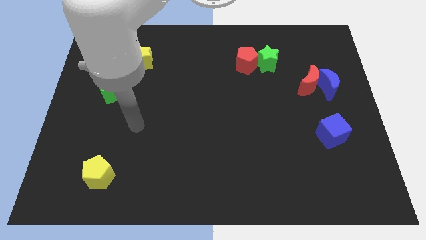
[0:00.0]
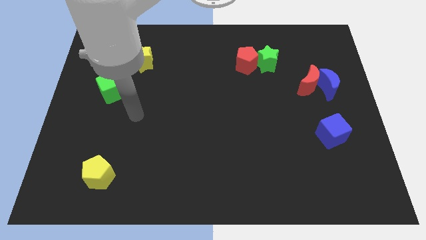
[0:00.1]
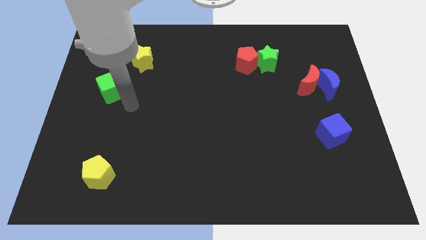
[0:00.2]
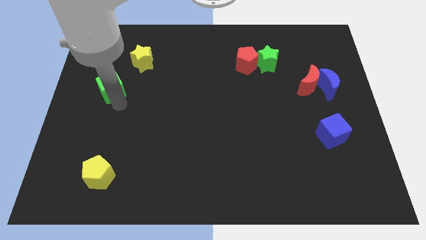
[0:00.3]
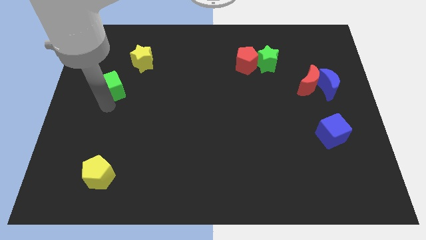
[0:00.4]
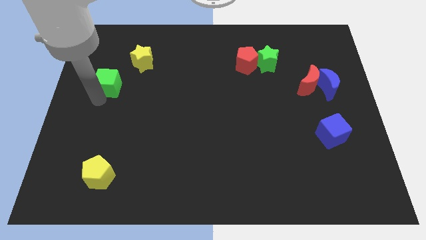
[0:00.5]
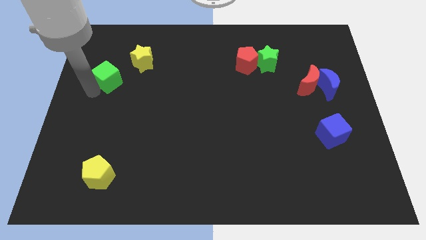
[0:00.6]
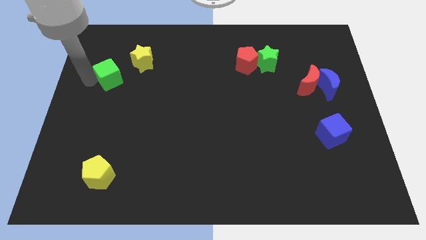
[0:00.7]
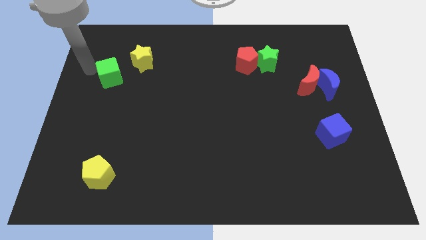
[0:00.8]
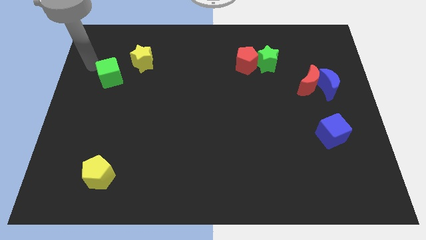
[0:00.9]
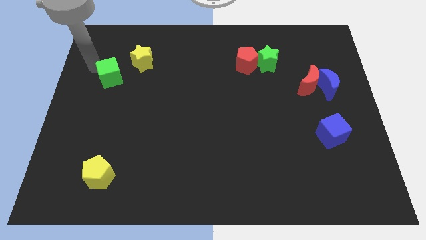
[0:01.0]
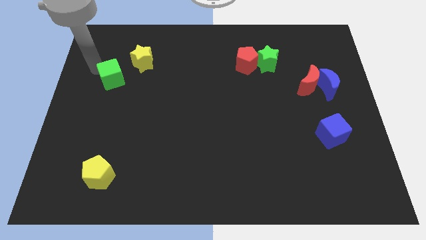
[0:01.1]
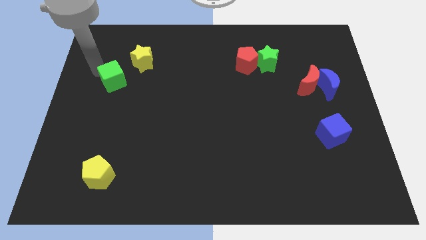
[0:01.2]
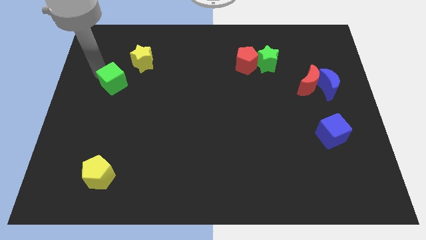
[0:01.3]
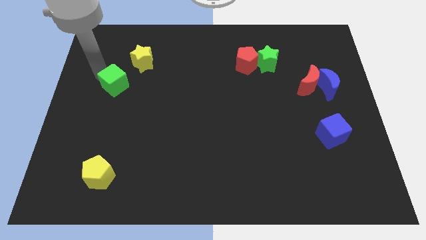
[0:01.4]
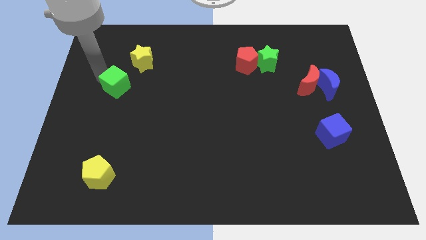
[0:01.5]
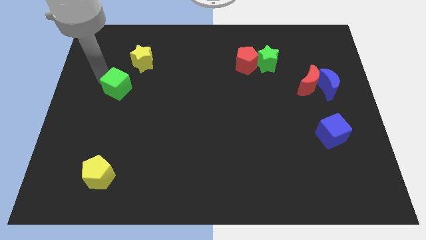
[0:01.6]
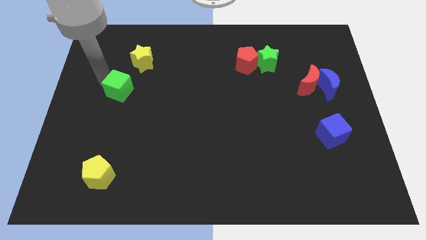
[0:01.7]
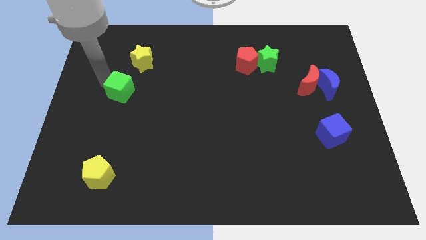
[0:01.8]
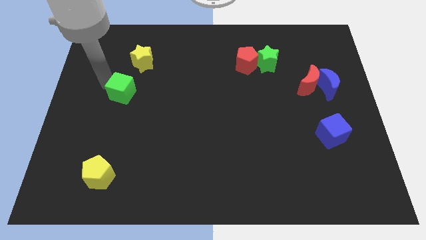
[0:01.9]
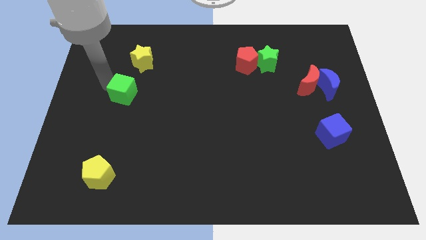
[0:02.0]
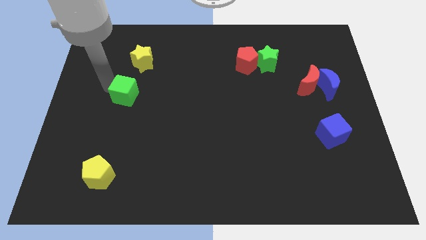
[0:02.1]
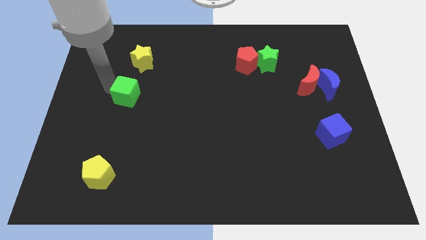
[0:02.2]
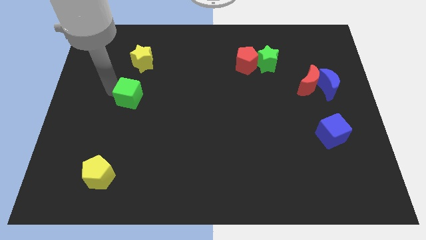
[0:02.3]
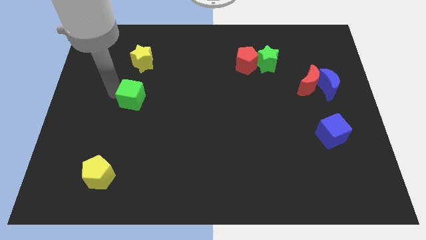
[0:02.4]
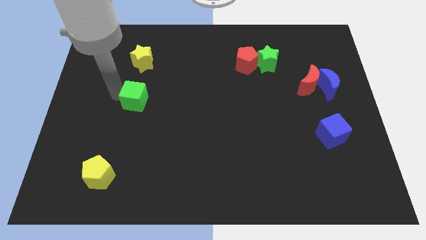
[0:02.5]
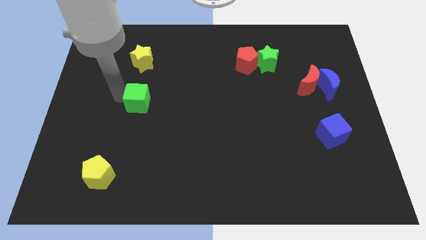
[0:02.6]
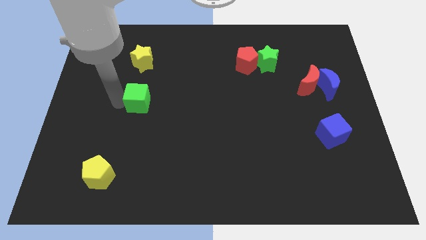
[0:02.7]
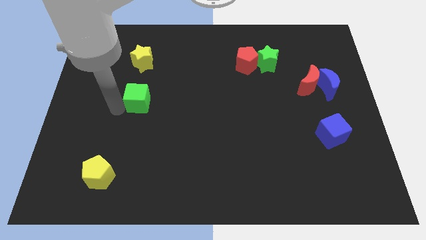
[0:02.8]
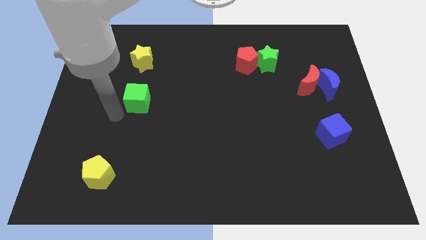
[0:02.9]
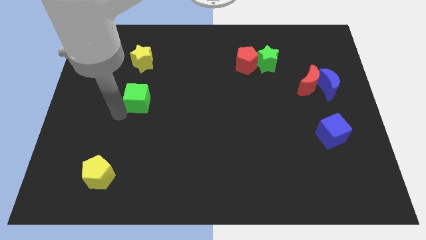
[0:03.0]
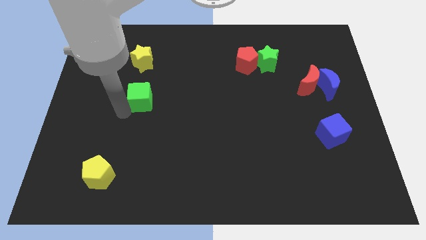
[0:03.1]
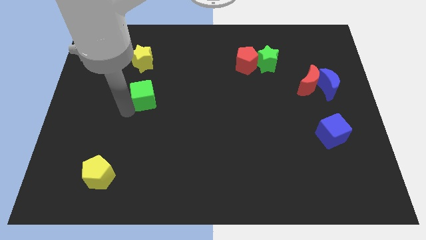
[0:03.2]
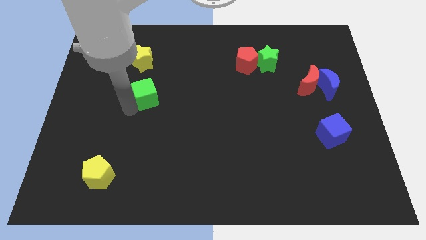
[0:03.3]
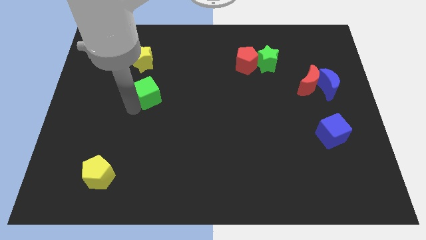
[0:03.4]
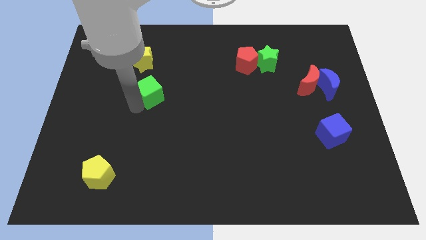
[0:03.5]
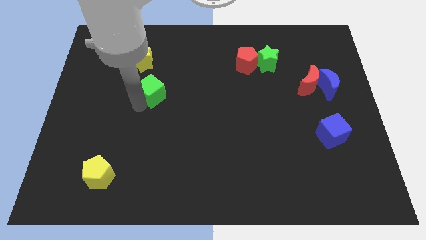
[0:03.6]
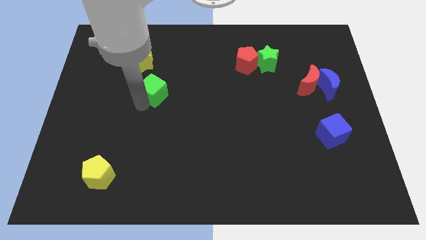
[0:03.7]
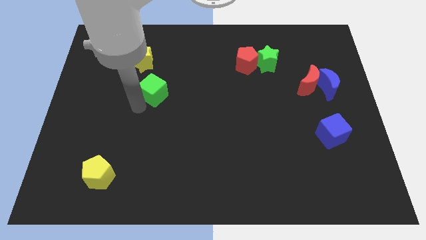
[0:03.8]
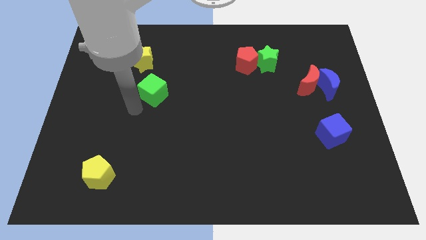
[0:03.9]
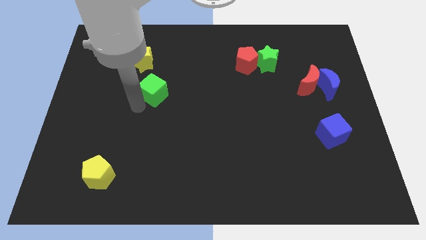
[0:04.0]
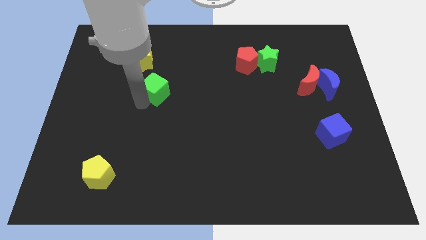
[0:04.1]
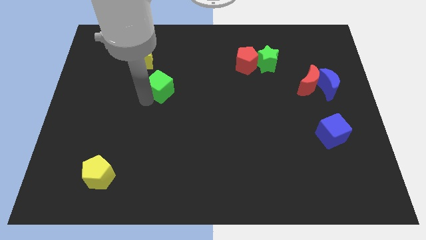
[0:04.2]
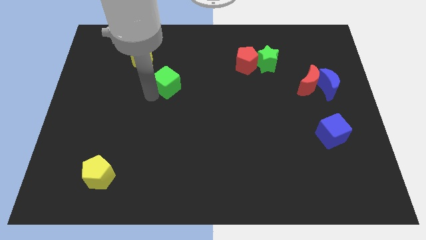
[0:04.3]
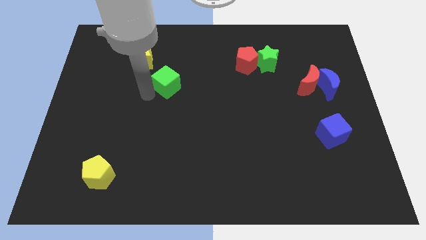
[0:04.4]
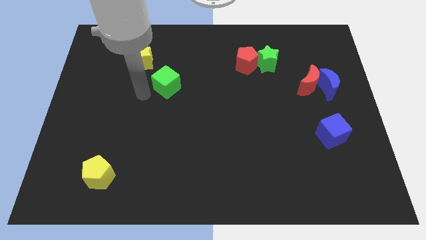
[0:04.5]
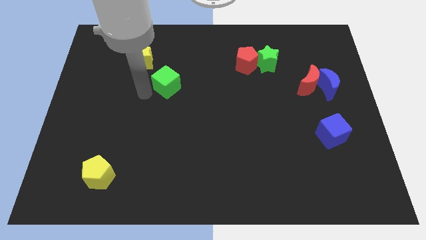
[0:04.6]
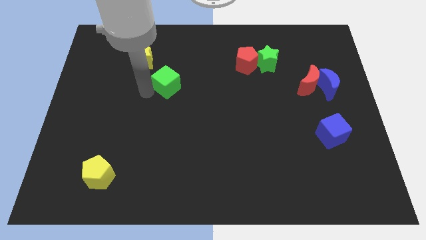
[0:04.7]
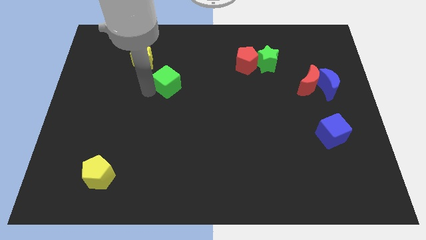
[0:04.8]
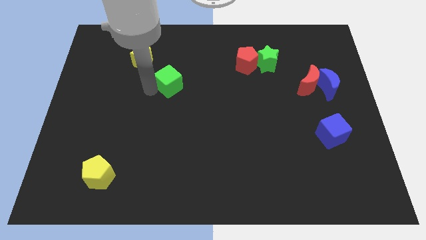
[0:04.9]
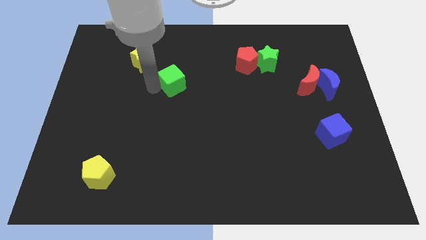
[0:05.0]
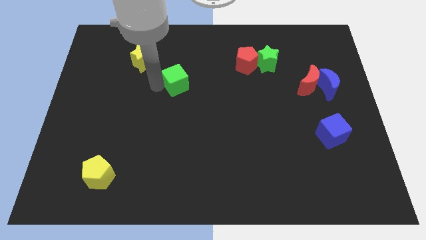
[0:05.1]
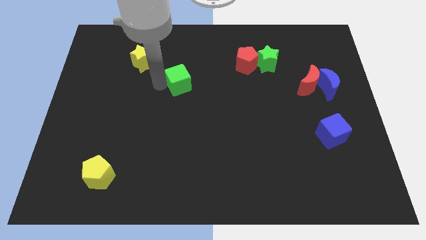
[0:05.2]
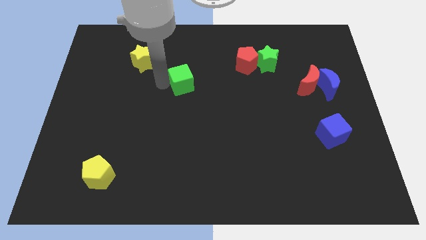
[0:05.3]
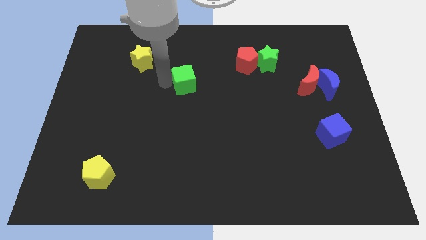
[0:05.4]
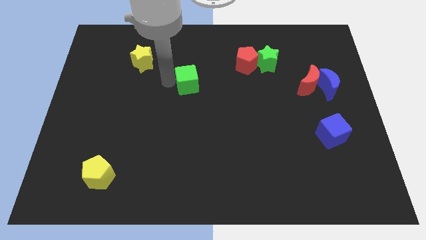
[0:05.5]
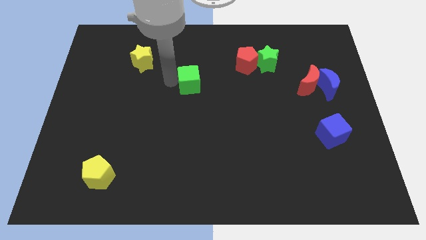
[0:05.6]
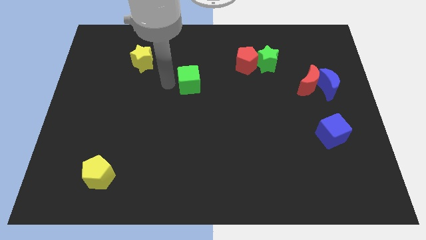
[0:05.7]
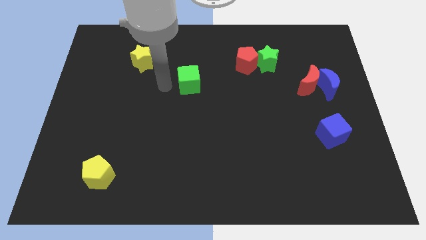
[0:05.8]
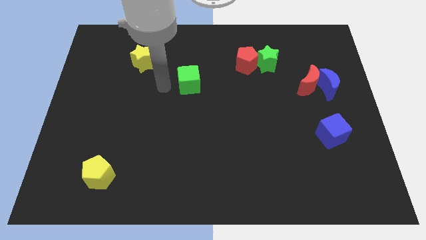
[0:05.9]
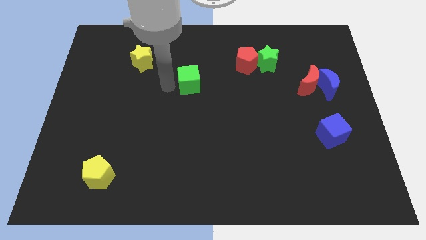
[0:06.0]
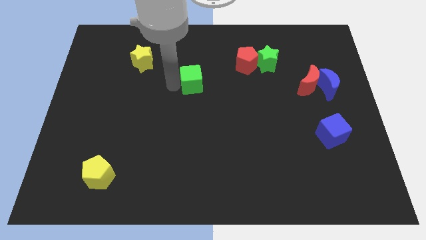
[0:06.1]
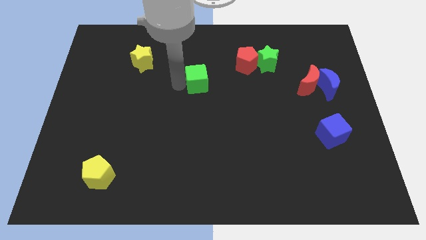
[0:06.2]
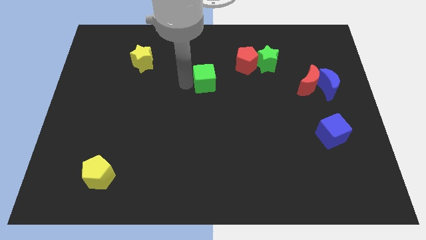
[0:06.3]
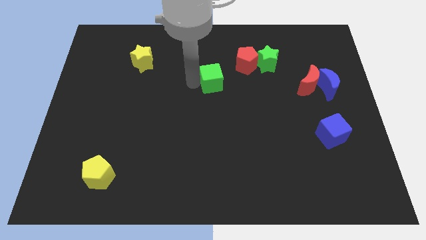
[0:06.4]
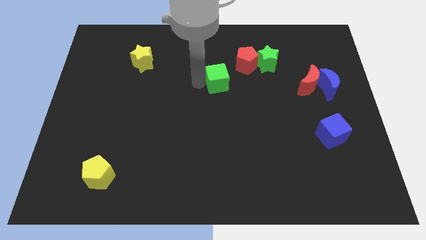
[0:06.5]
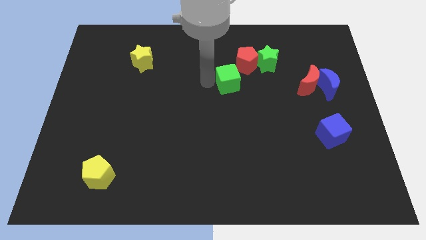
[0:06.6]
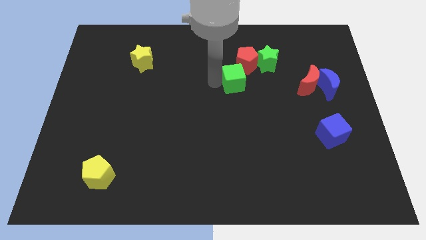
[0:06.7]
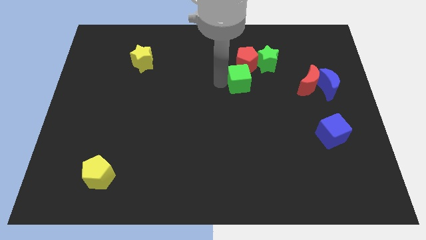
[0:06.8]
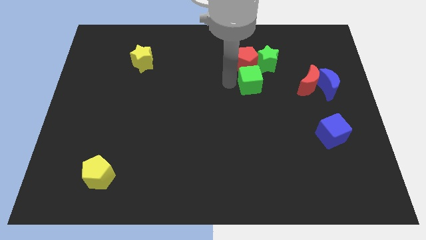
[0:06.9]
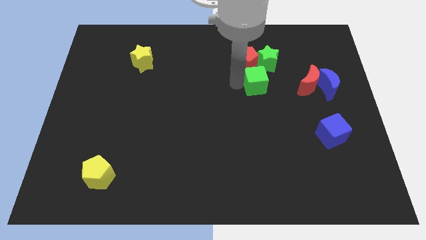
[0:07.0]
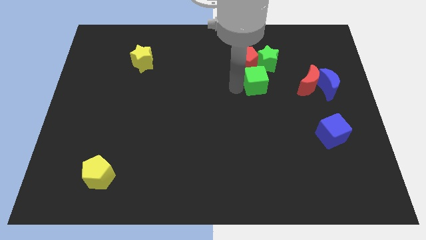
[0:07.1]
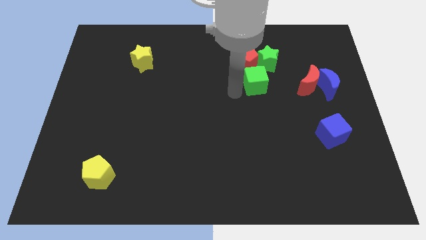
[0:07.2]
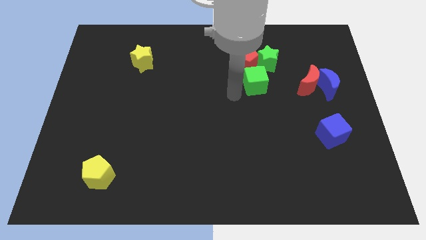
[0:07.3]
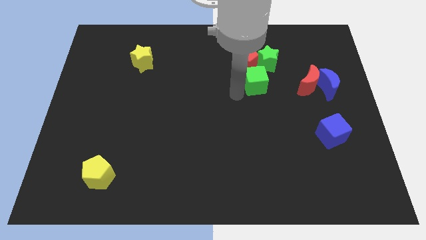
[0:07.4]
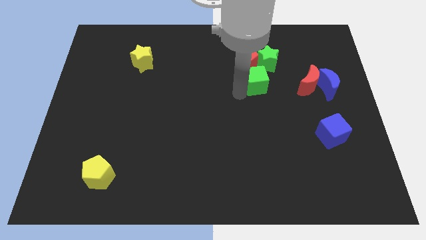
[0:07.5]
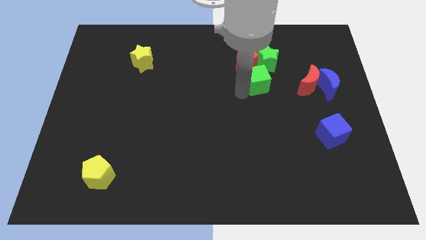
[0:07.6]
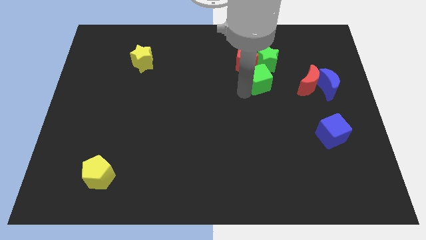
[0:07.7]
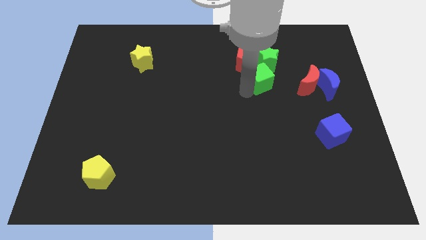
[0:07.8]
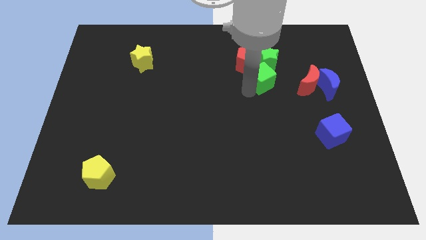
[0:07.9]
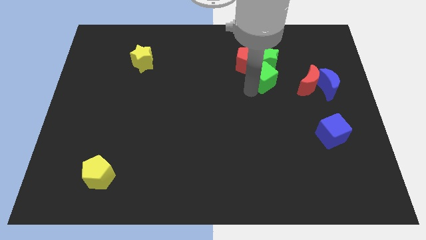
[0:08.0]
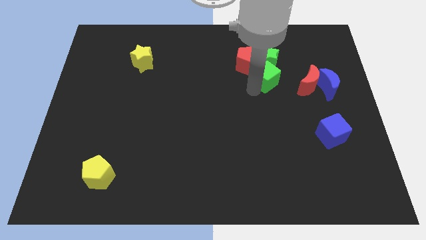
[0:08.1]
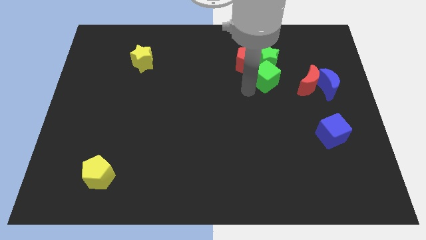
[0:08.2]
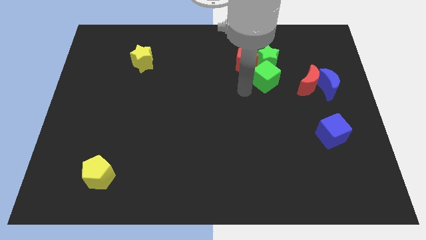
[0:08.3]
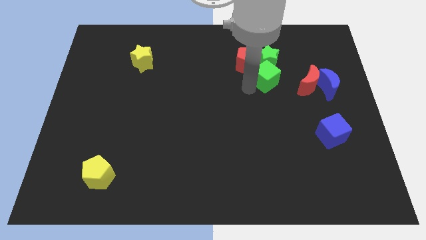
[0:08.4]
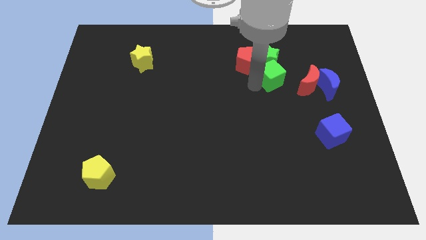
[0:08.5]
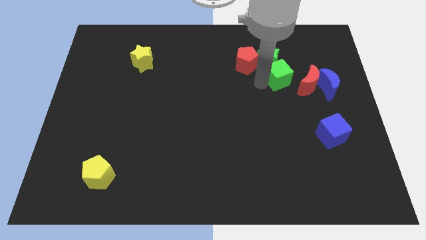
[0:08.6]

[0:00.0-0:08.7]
slide the green cube diagonally up and to the left of the red moon
